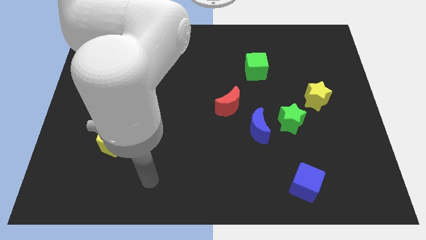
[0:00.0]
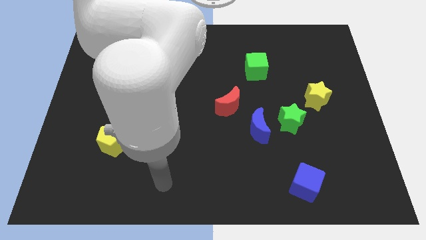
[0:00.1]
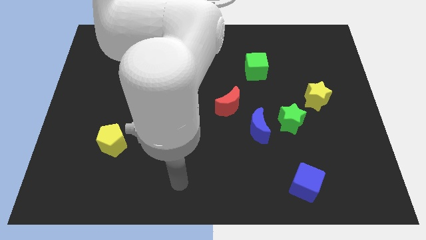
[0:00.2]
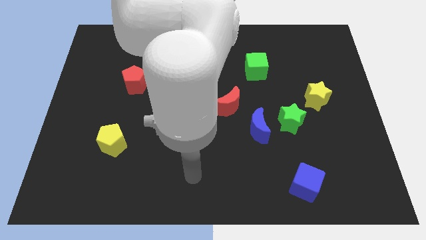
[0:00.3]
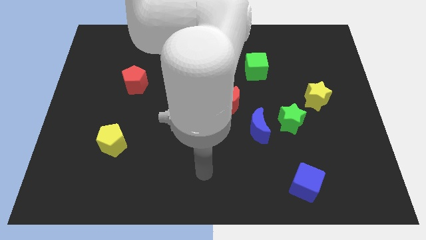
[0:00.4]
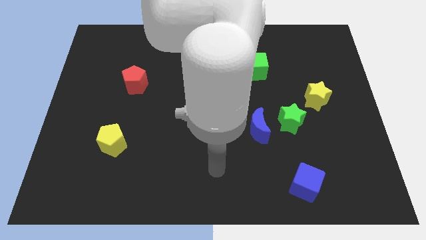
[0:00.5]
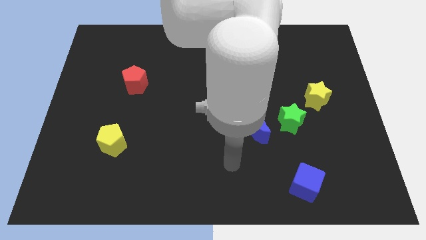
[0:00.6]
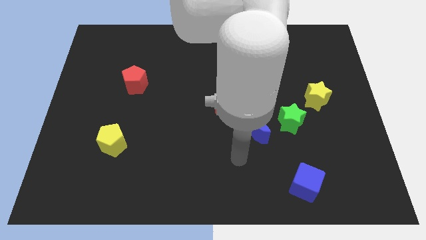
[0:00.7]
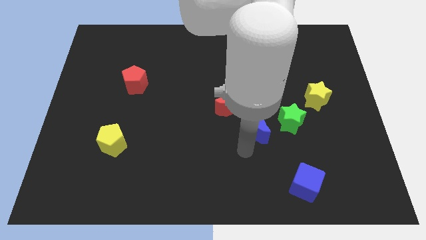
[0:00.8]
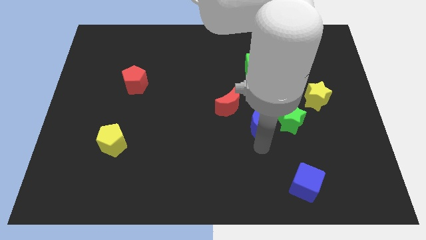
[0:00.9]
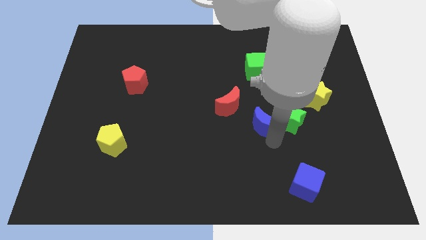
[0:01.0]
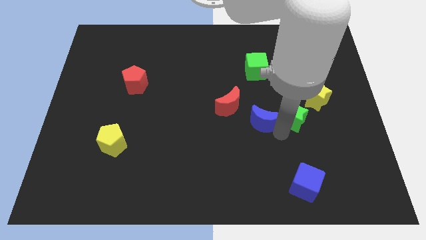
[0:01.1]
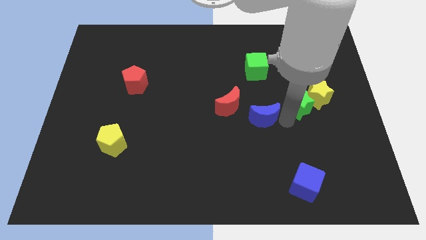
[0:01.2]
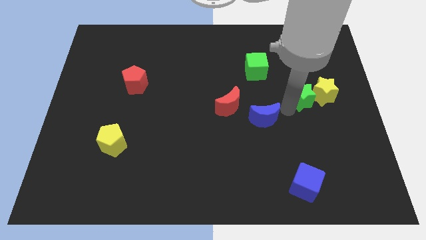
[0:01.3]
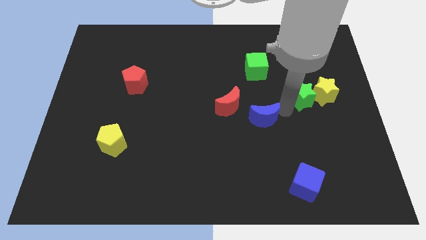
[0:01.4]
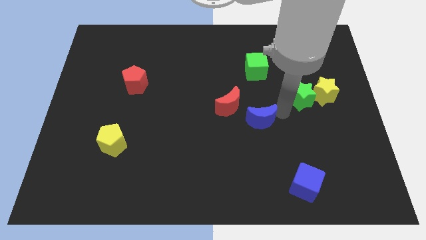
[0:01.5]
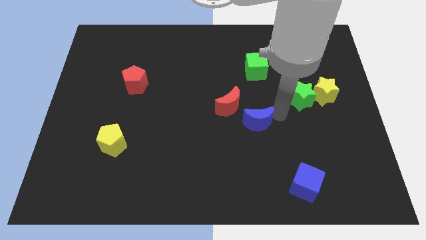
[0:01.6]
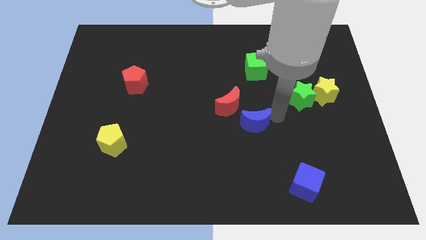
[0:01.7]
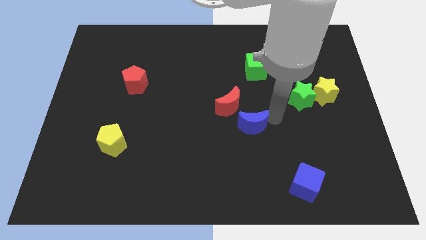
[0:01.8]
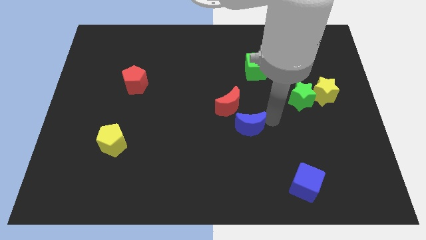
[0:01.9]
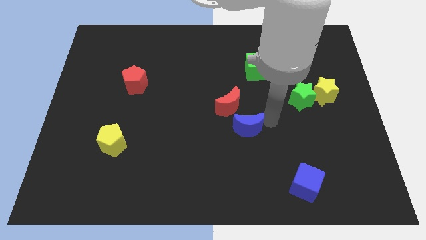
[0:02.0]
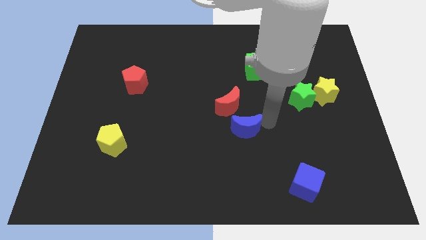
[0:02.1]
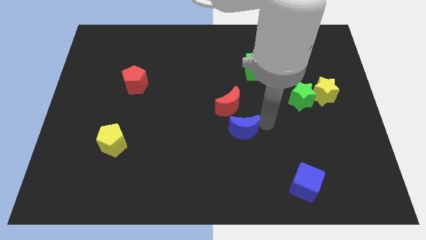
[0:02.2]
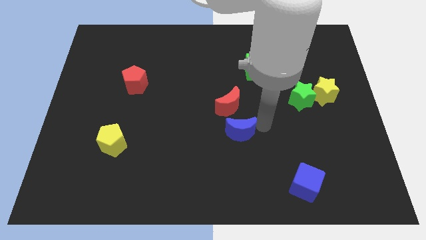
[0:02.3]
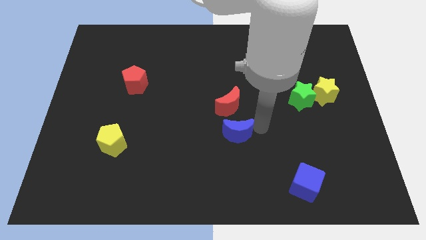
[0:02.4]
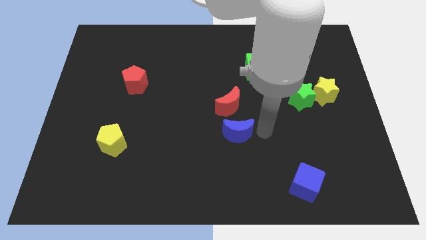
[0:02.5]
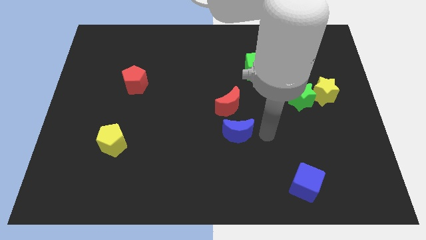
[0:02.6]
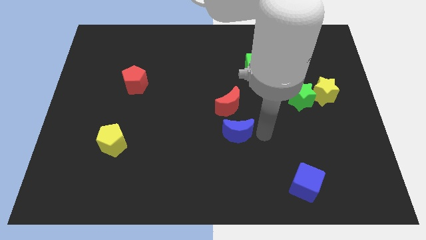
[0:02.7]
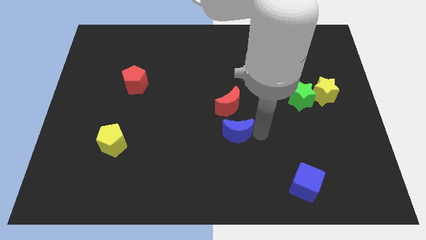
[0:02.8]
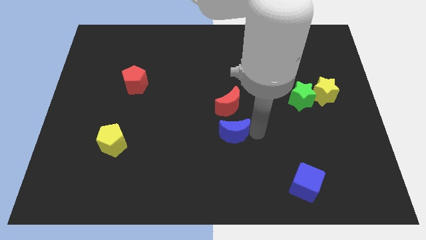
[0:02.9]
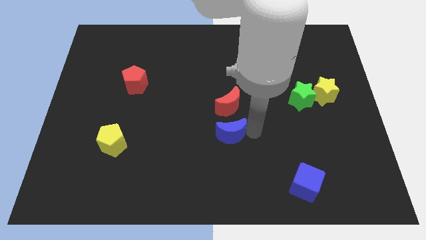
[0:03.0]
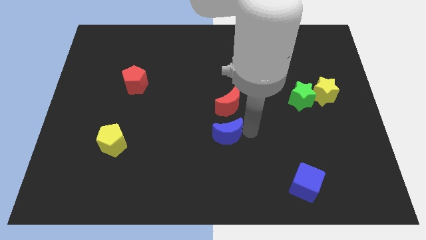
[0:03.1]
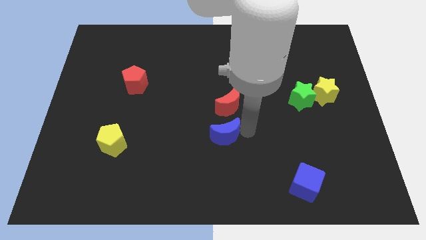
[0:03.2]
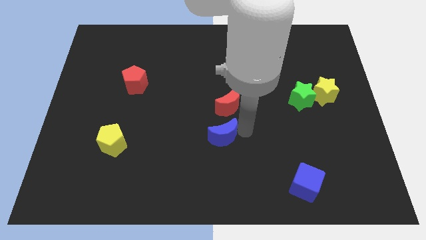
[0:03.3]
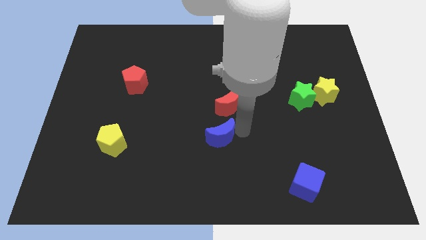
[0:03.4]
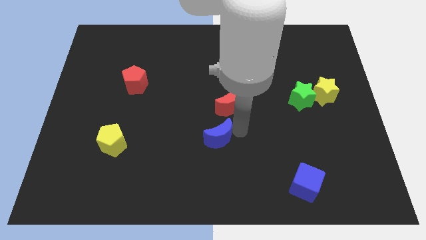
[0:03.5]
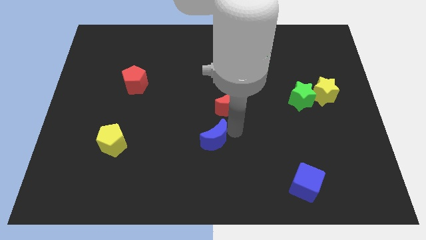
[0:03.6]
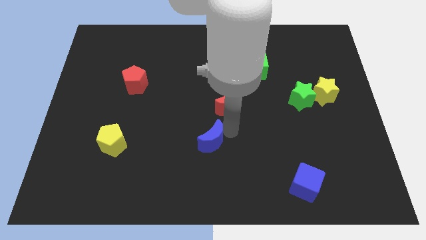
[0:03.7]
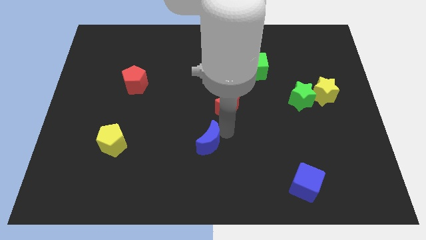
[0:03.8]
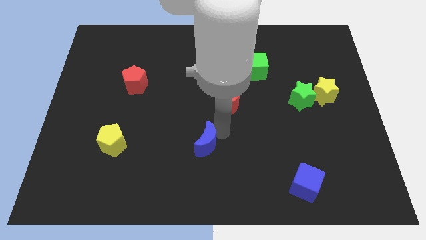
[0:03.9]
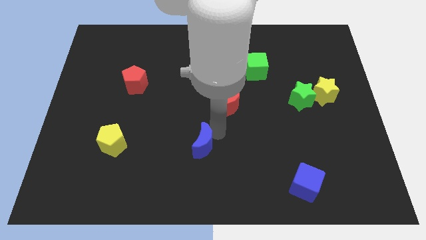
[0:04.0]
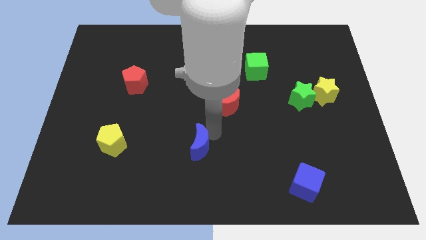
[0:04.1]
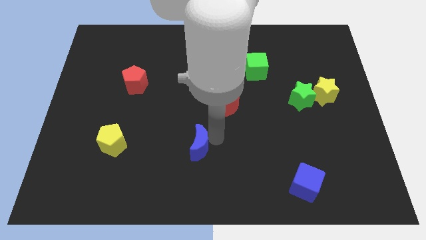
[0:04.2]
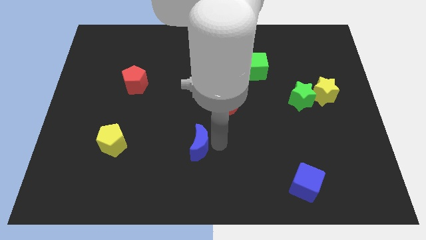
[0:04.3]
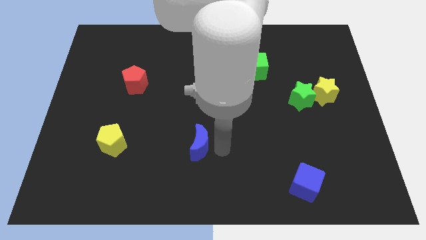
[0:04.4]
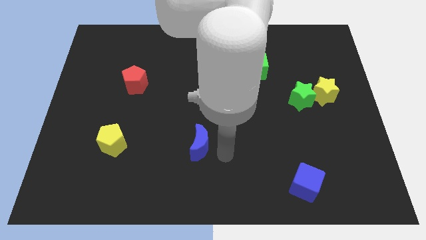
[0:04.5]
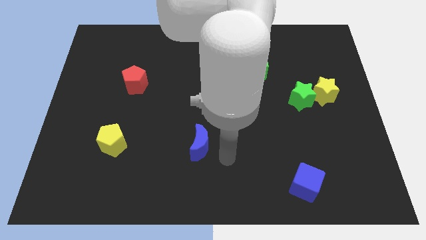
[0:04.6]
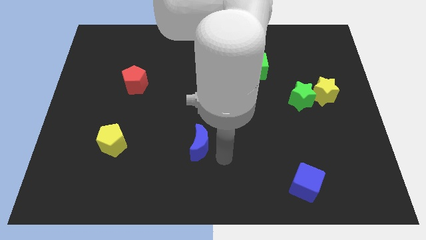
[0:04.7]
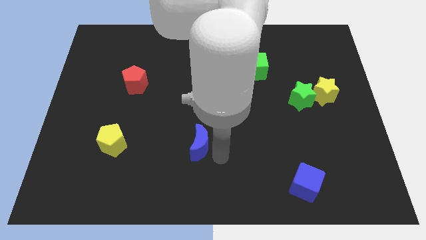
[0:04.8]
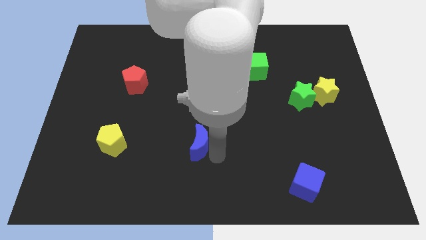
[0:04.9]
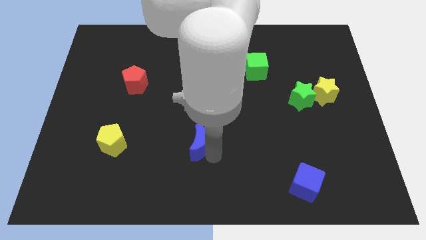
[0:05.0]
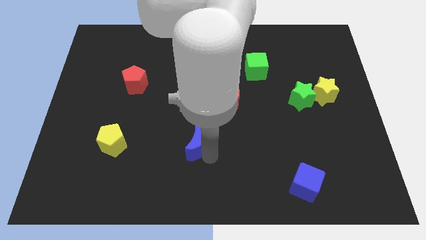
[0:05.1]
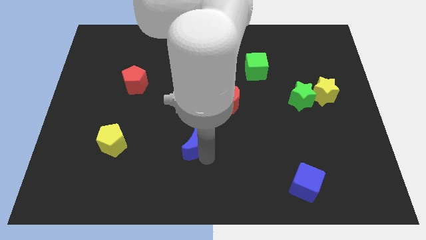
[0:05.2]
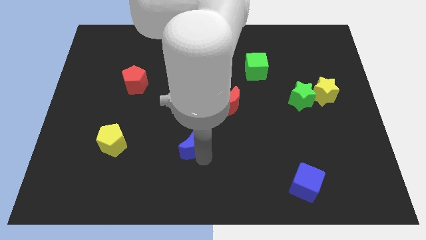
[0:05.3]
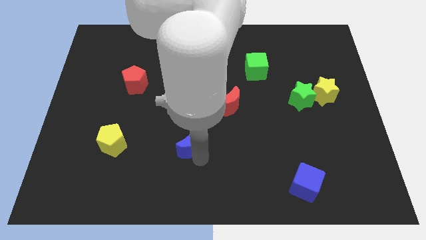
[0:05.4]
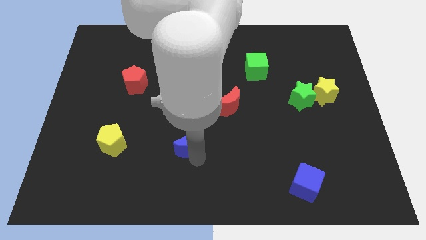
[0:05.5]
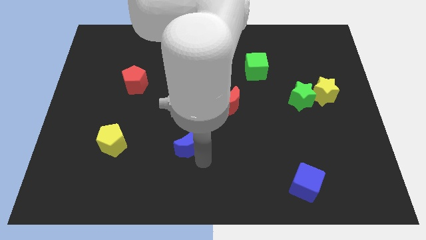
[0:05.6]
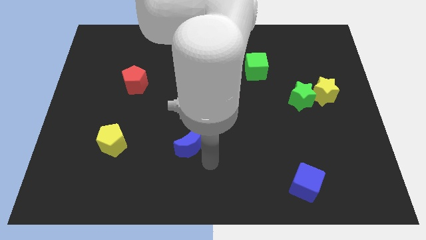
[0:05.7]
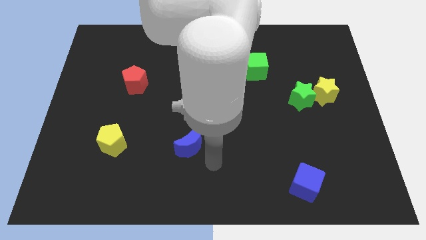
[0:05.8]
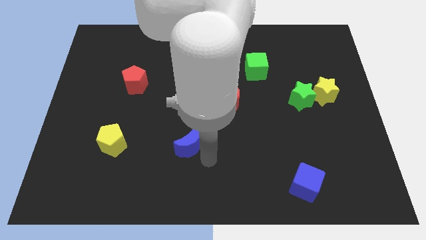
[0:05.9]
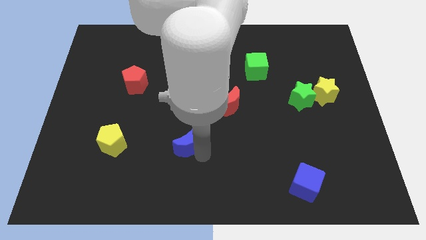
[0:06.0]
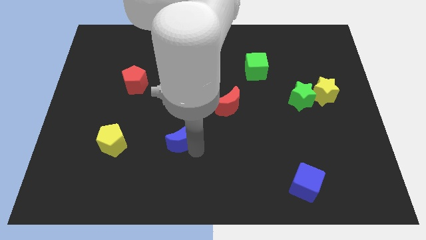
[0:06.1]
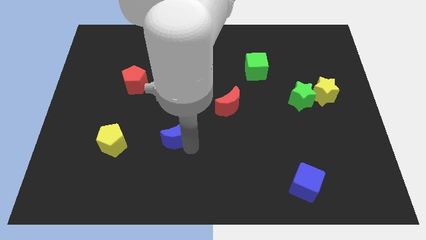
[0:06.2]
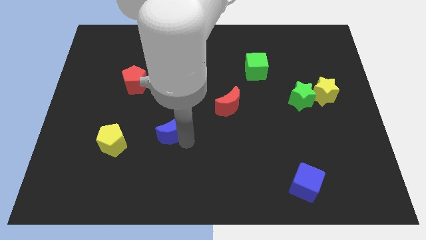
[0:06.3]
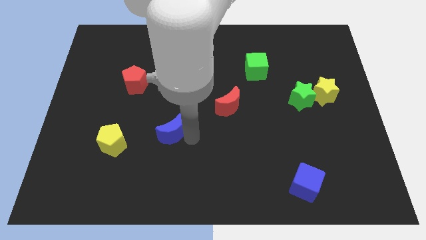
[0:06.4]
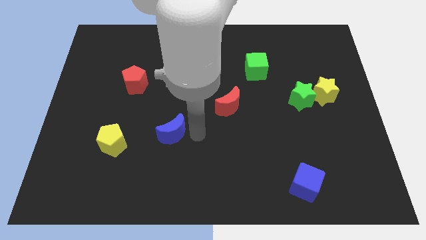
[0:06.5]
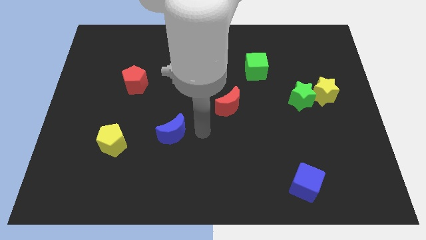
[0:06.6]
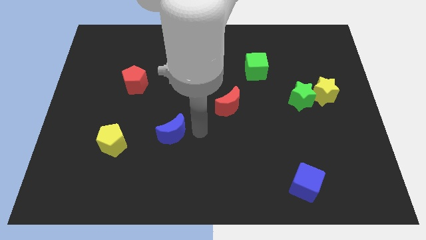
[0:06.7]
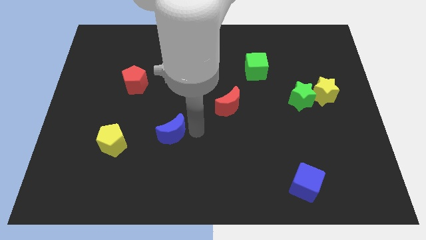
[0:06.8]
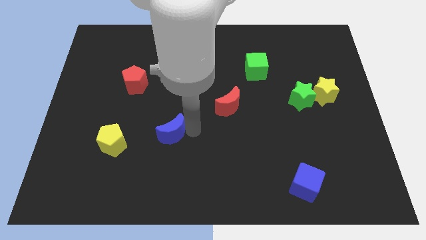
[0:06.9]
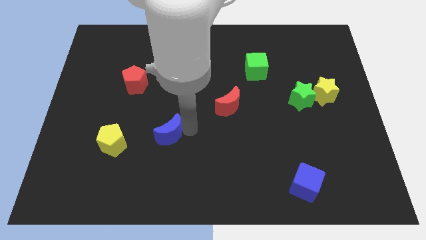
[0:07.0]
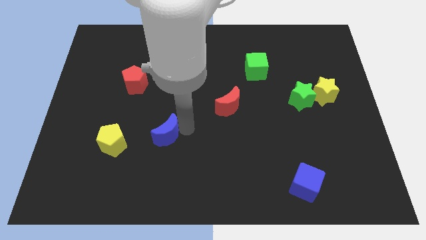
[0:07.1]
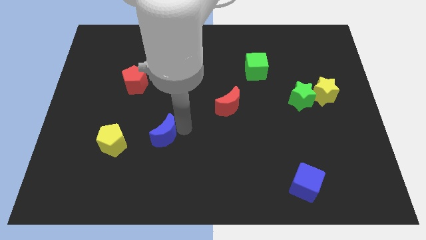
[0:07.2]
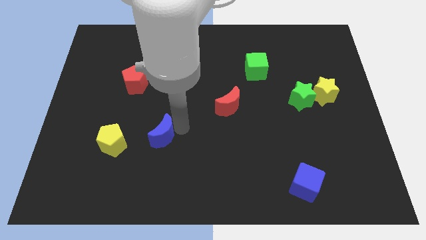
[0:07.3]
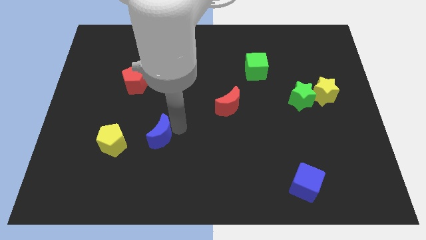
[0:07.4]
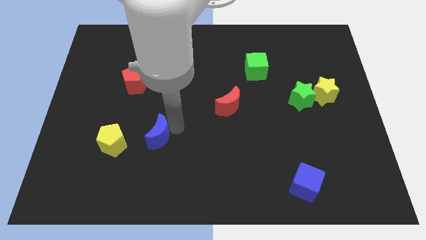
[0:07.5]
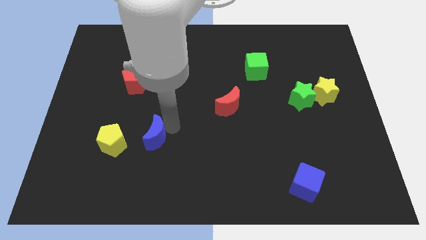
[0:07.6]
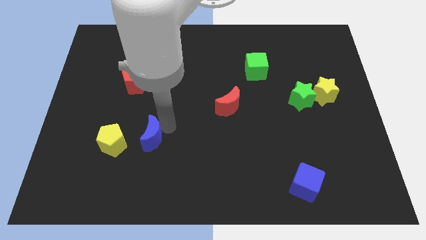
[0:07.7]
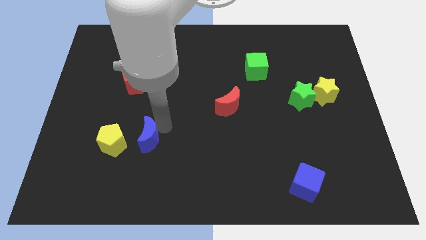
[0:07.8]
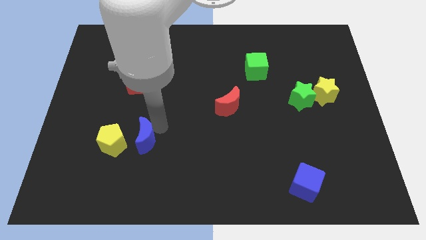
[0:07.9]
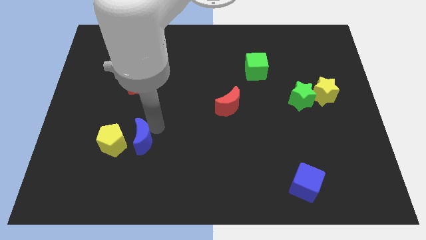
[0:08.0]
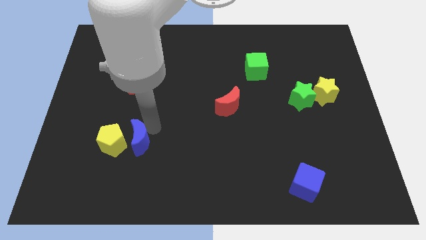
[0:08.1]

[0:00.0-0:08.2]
put the blue moon close to the yellow pentagon
